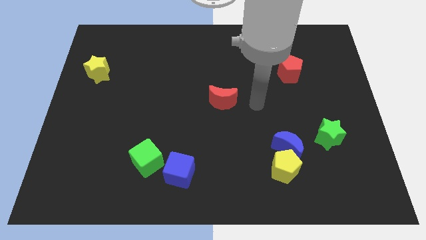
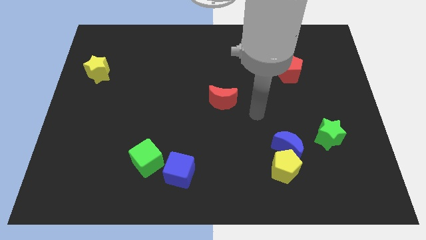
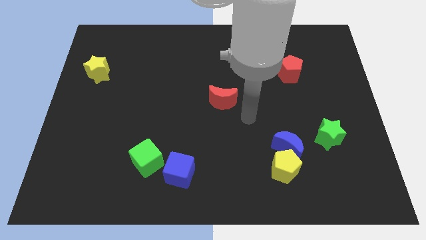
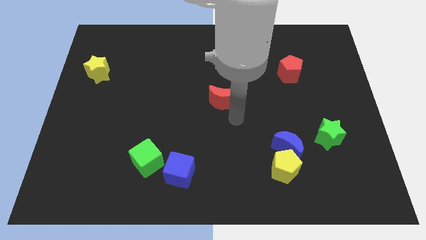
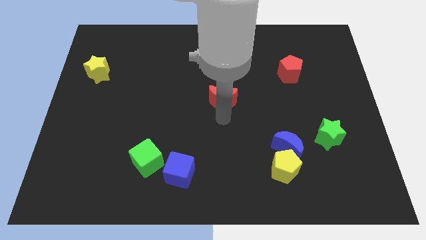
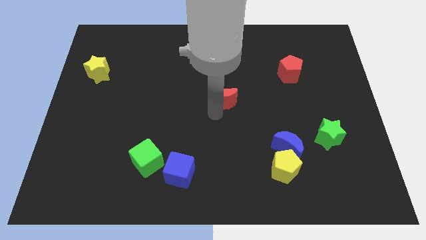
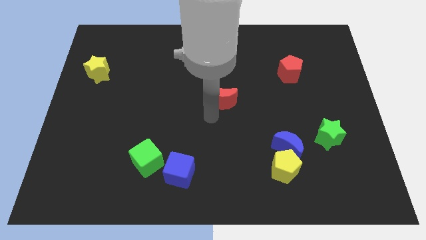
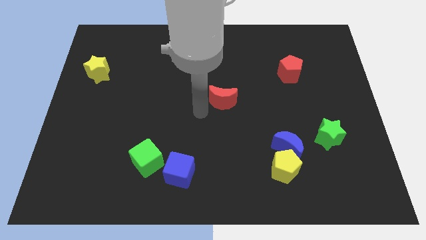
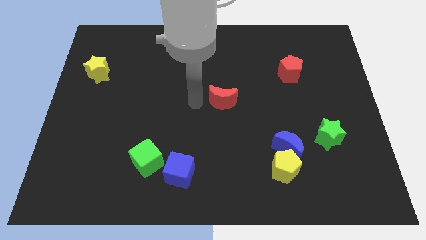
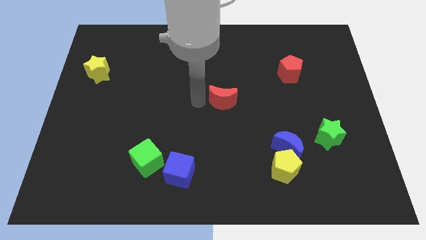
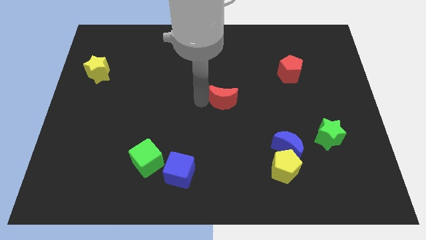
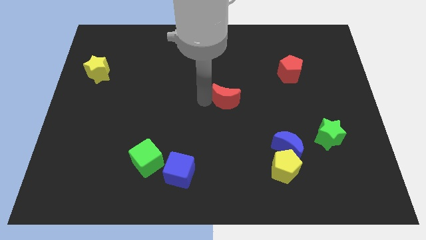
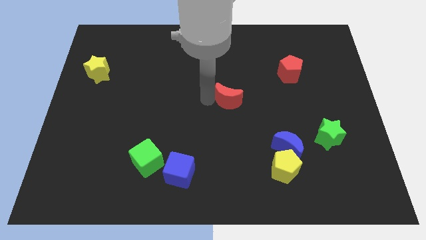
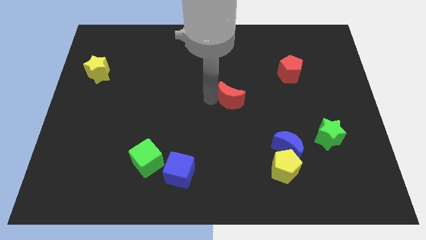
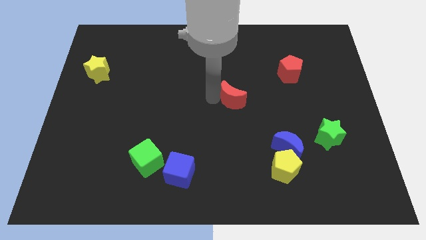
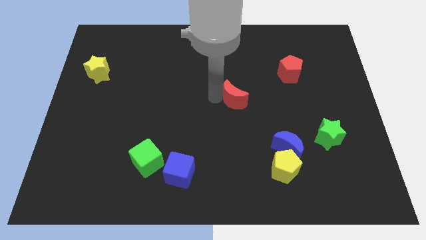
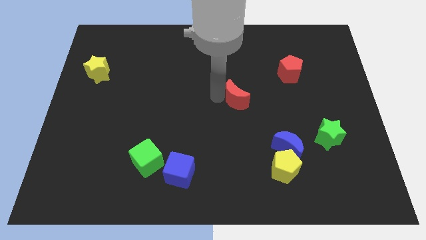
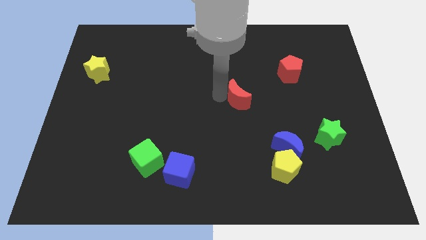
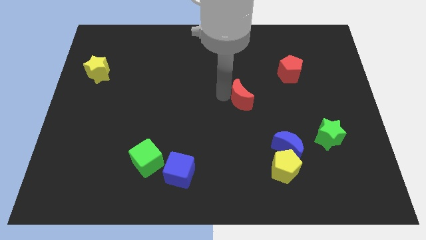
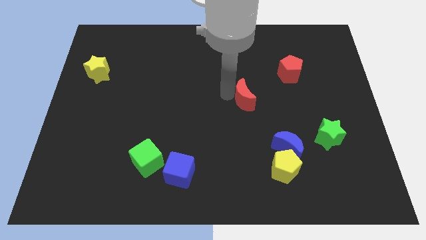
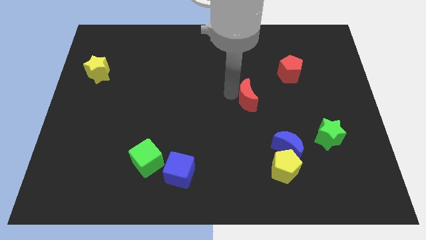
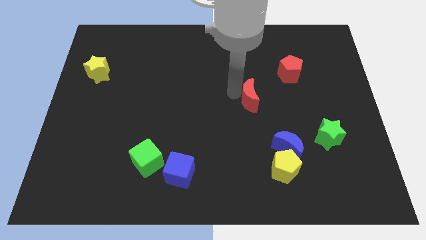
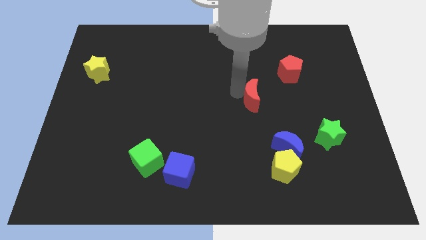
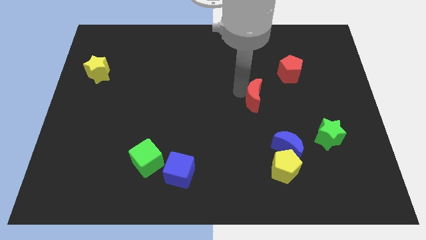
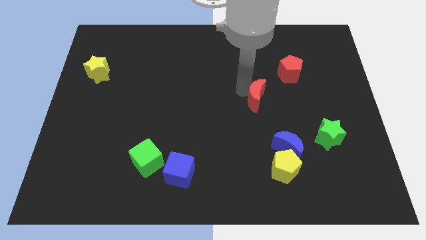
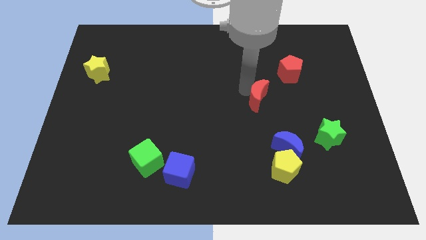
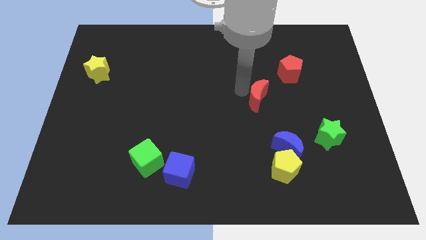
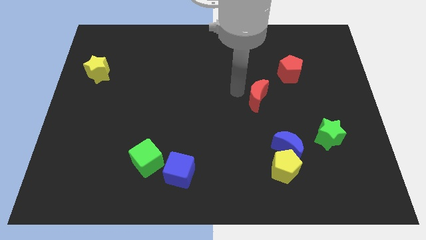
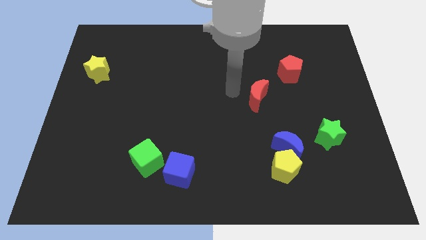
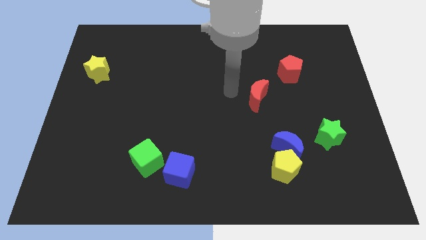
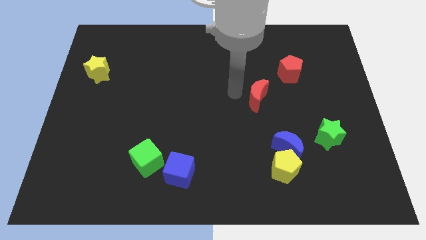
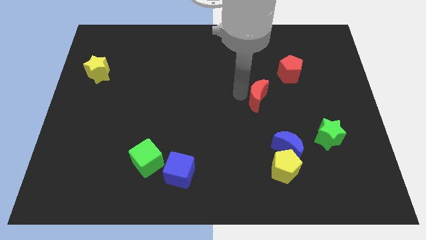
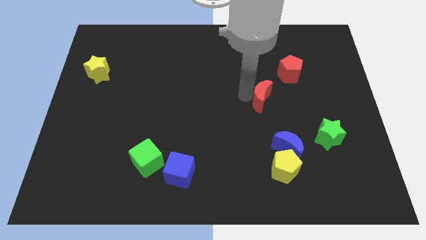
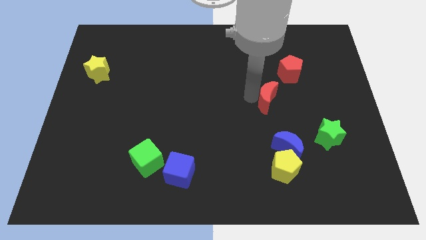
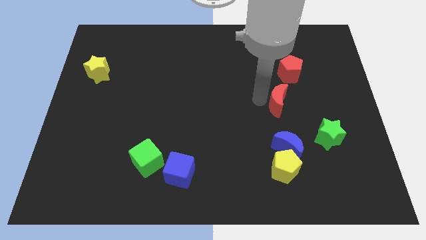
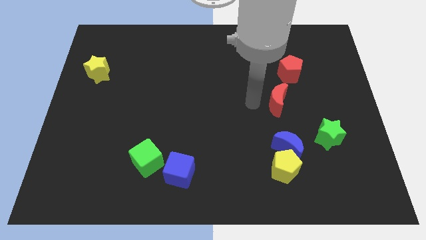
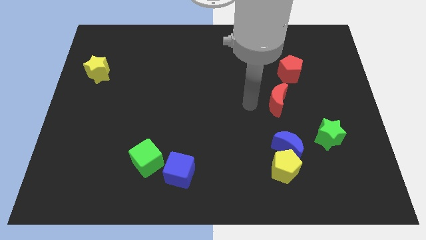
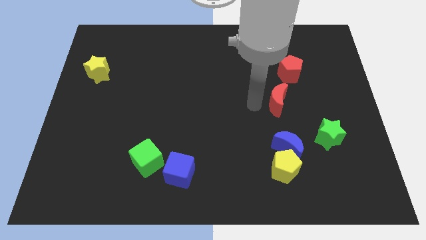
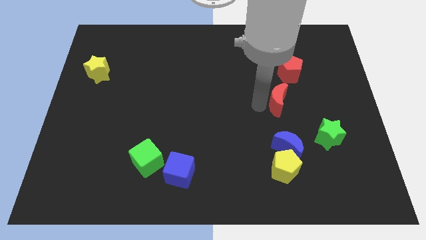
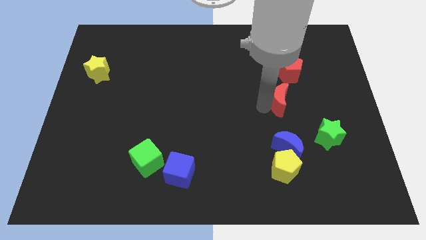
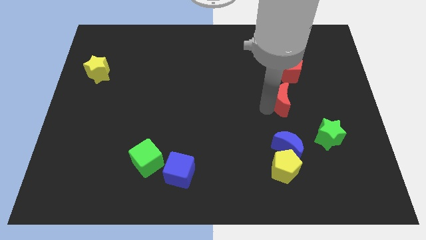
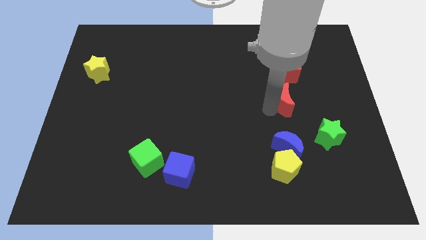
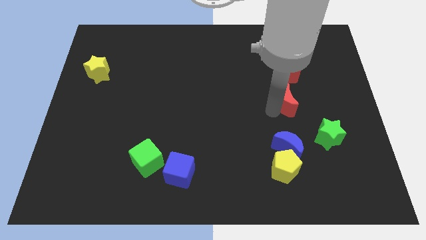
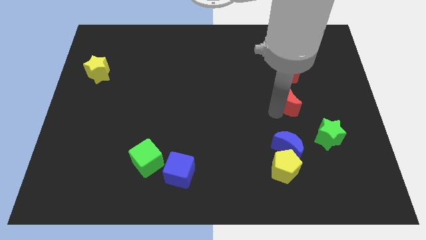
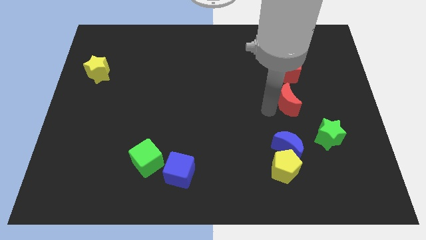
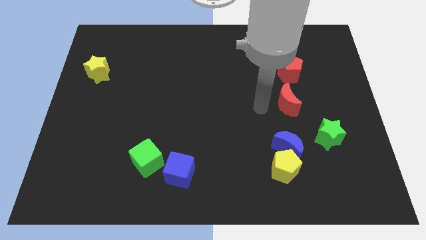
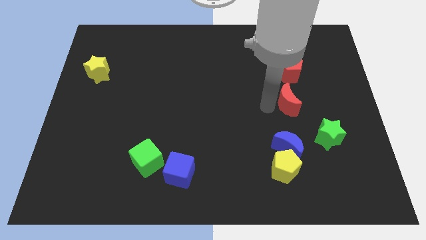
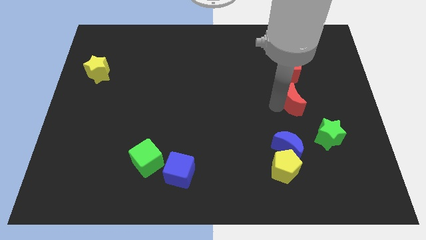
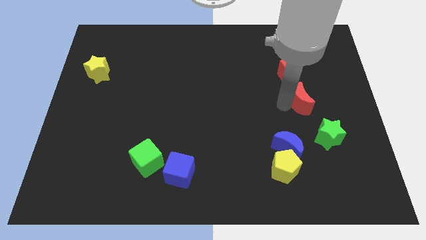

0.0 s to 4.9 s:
put the red moon above the green star

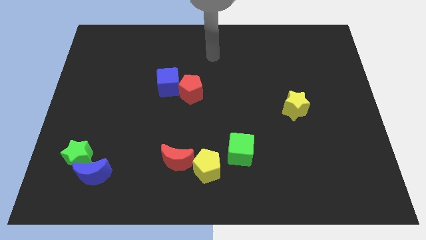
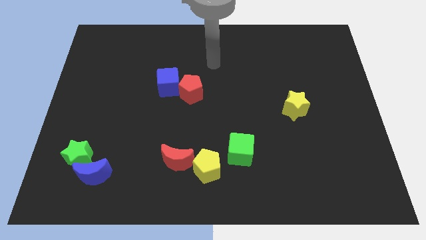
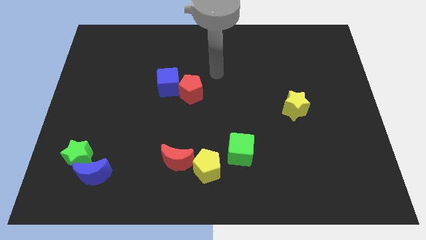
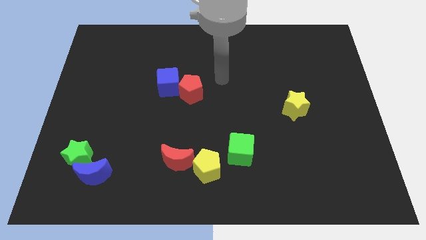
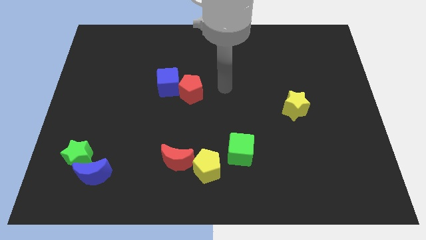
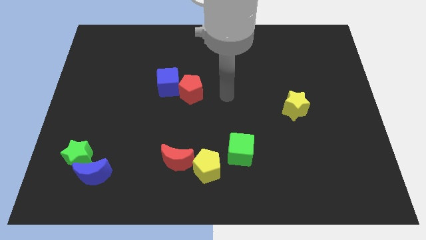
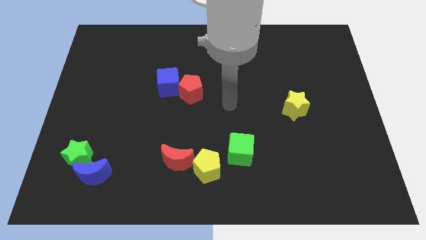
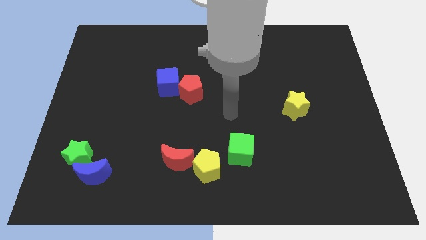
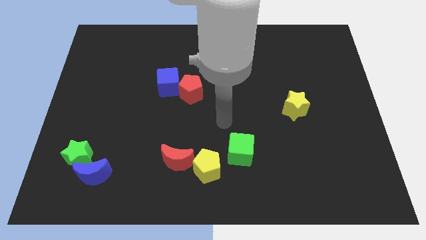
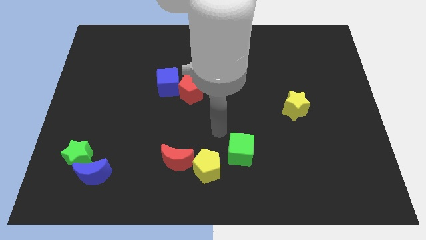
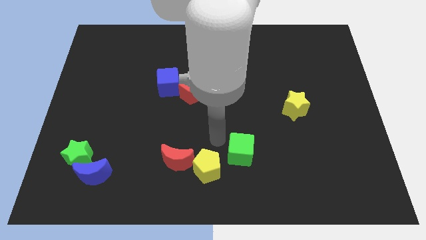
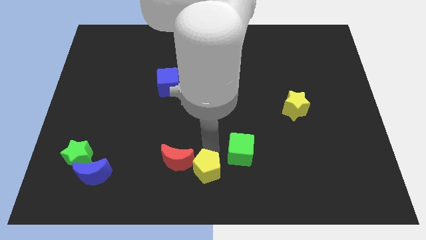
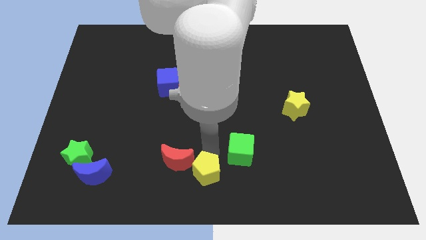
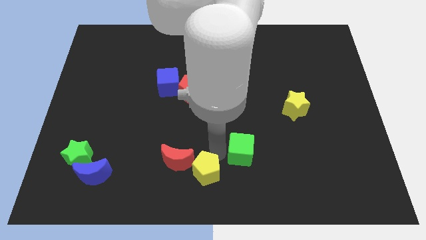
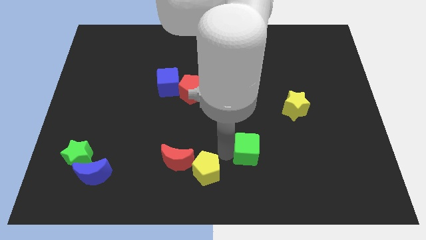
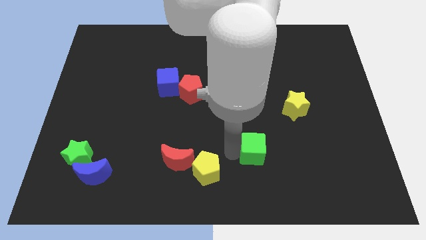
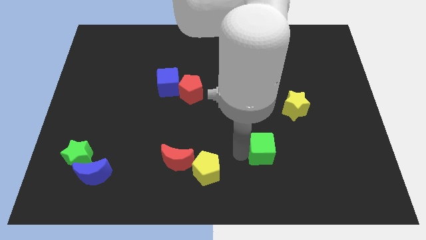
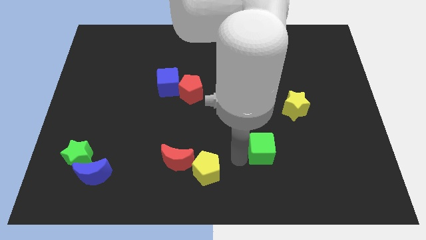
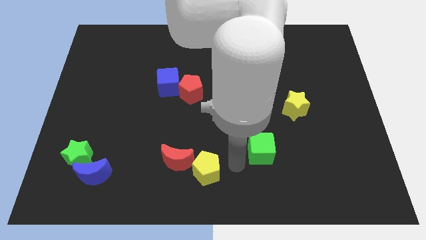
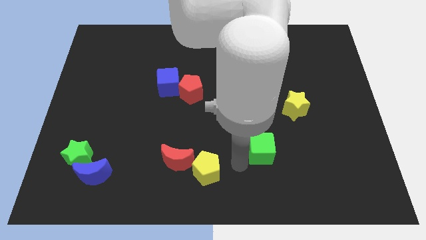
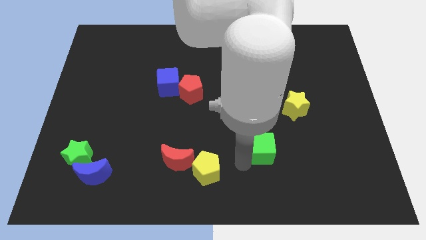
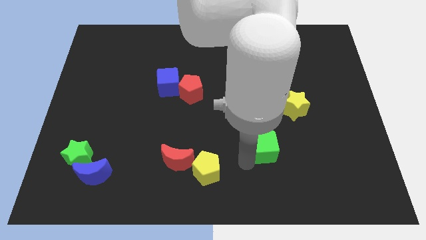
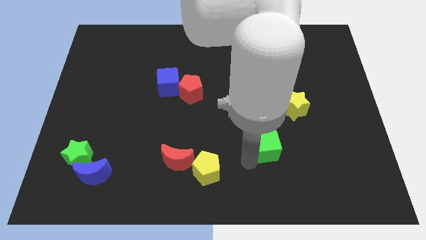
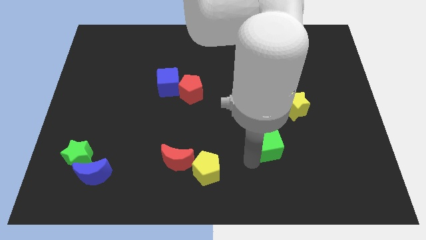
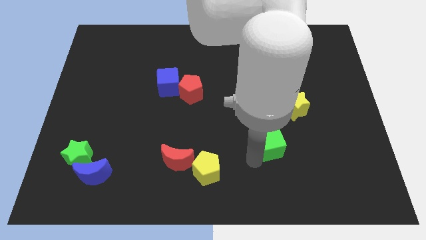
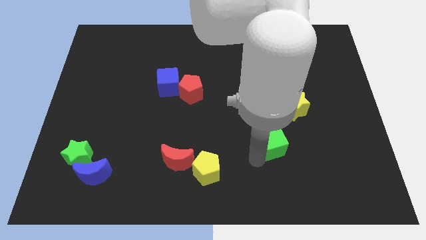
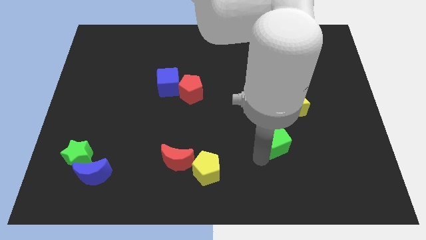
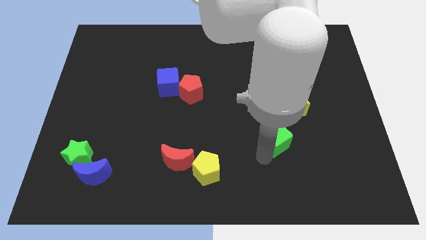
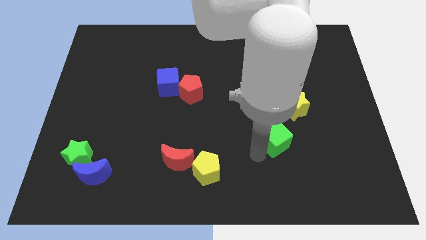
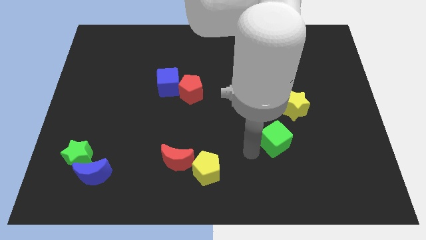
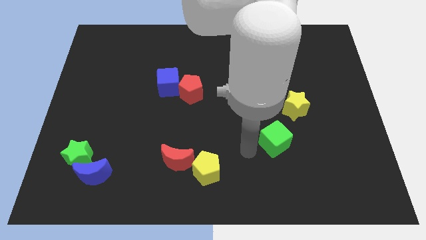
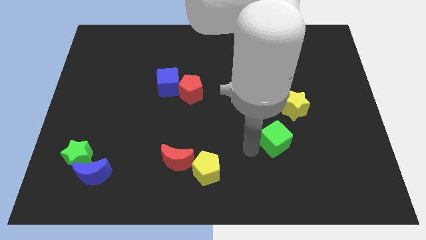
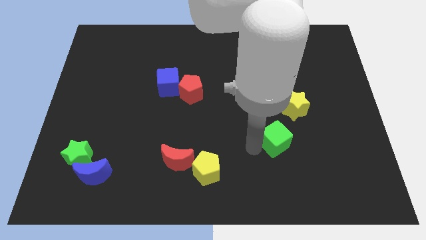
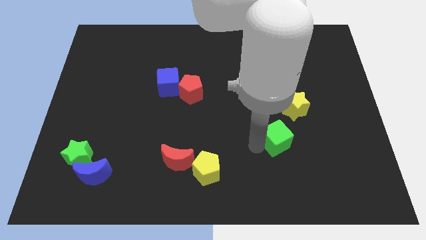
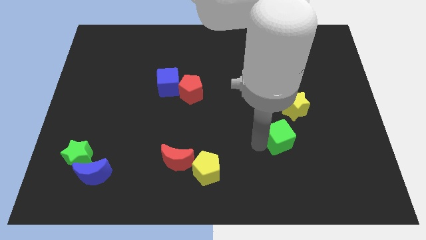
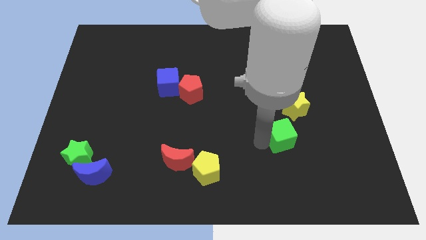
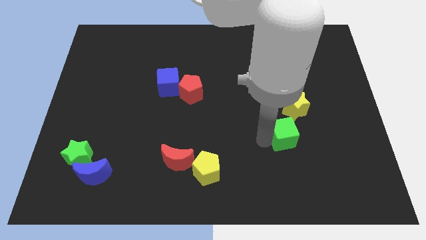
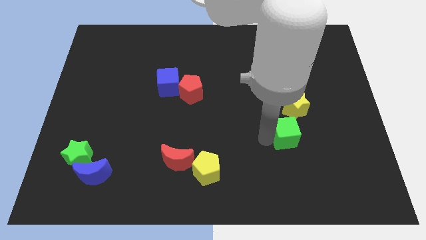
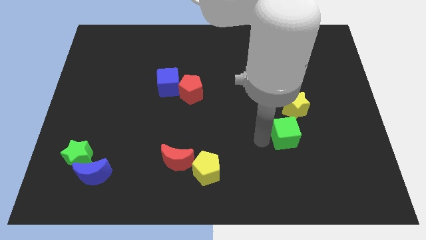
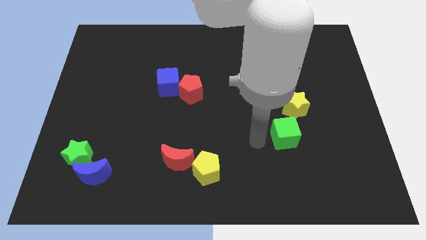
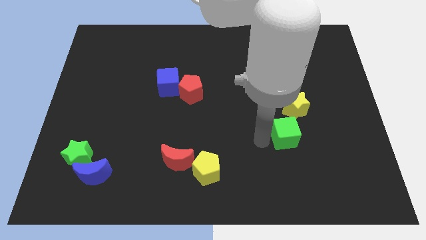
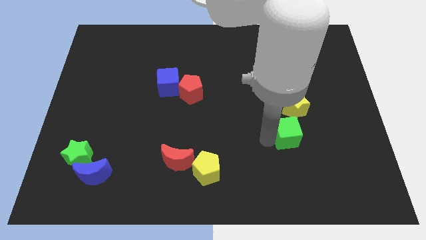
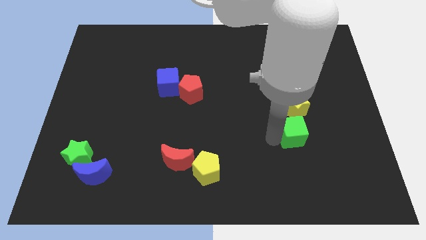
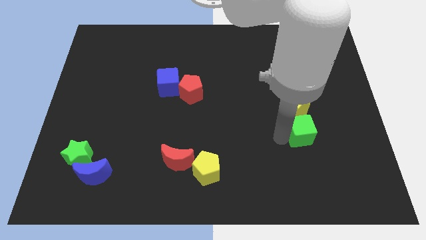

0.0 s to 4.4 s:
move the green cube diagonally down and to the right of the yellow star
